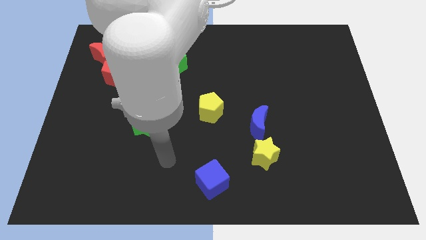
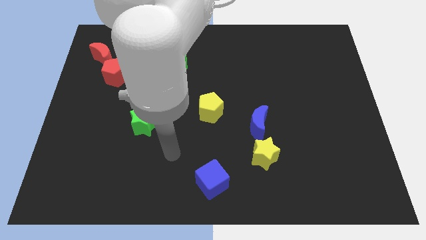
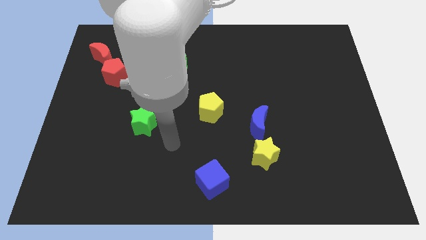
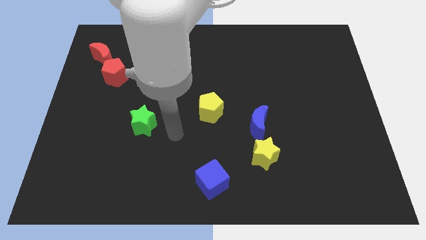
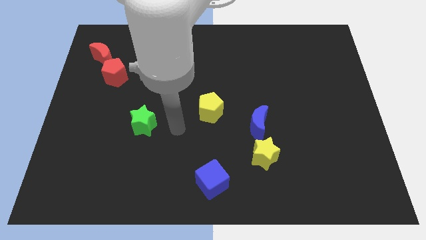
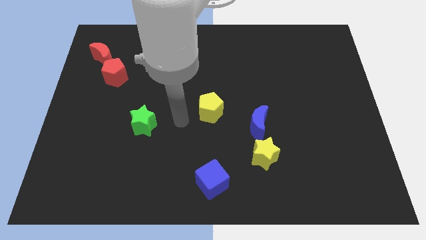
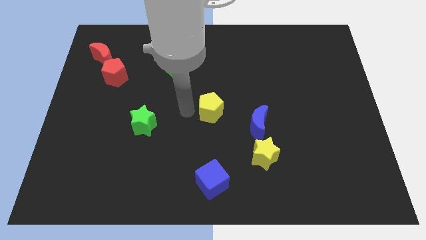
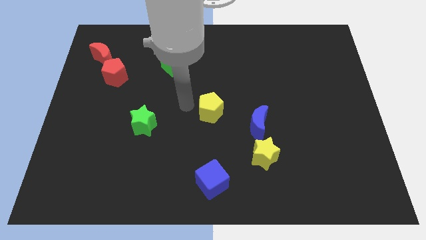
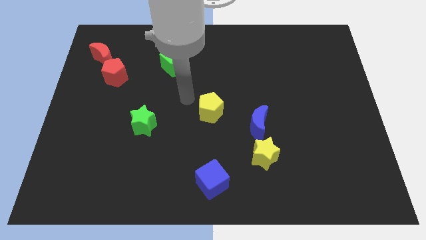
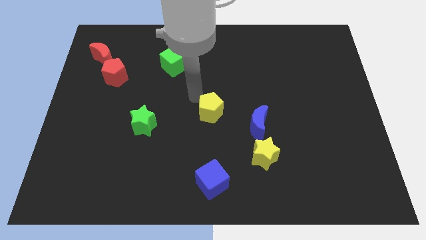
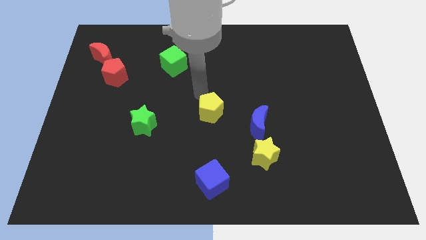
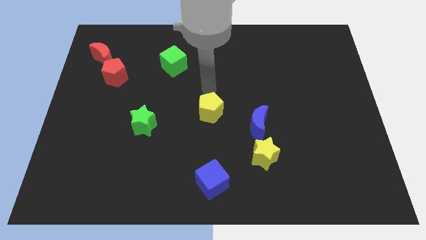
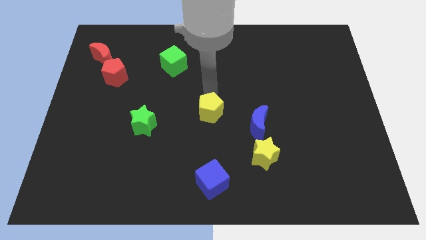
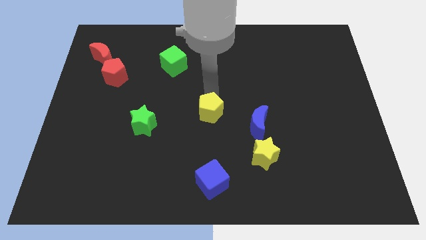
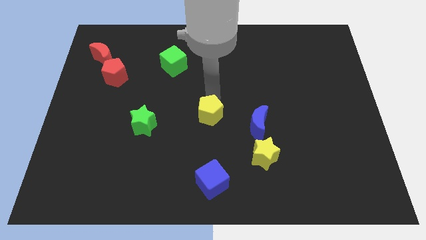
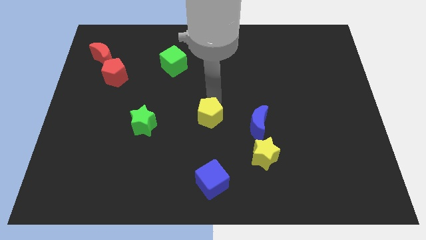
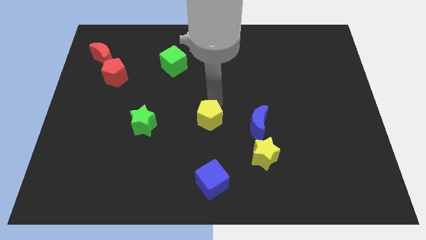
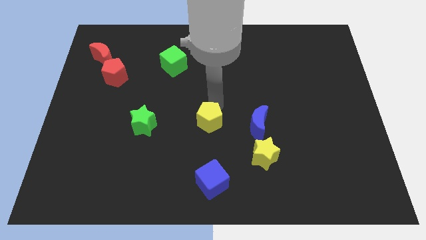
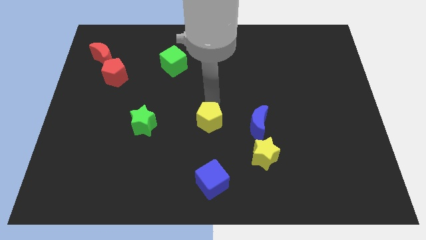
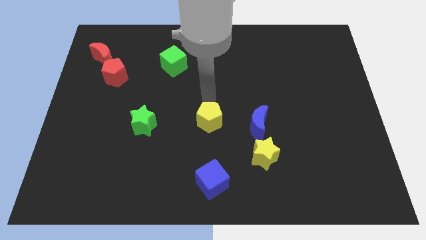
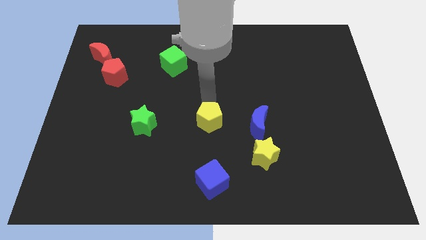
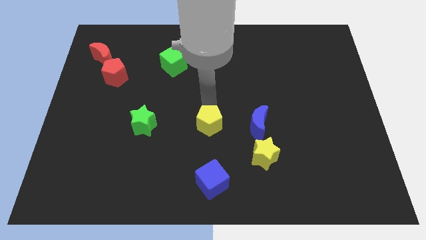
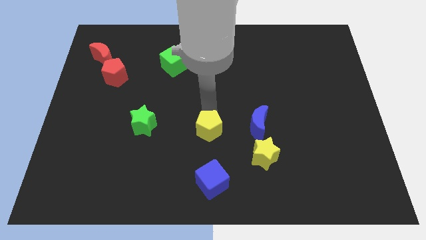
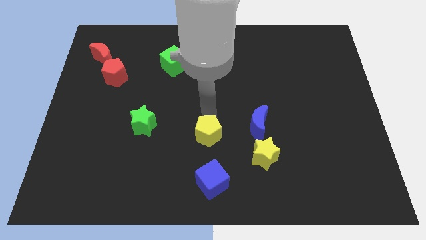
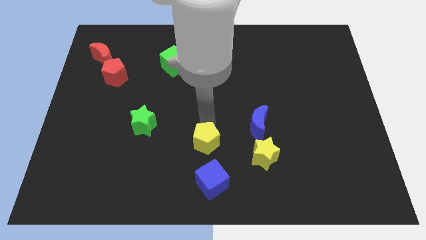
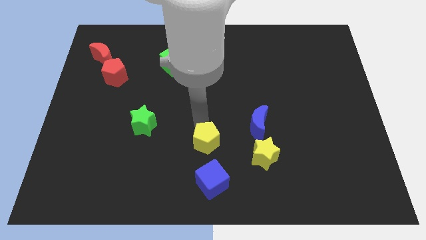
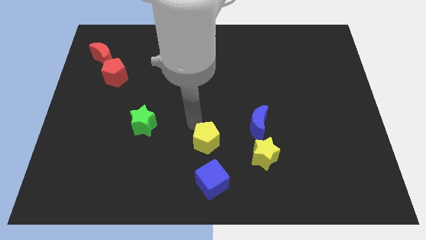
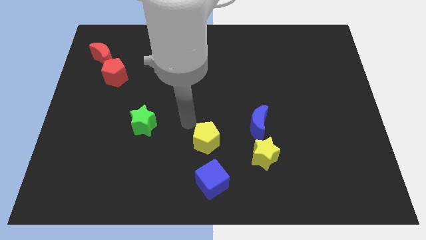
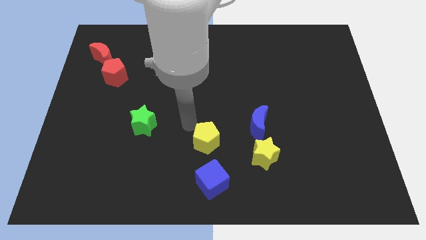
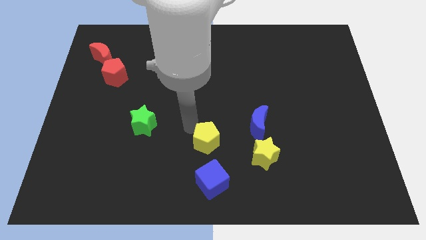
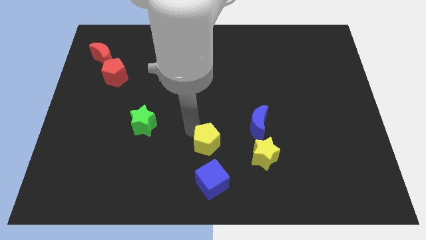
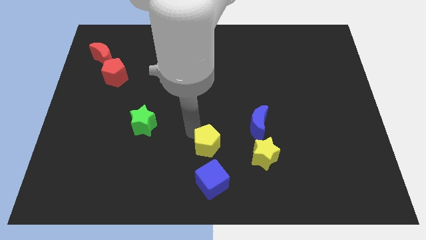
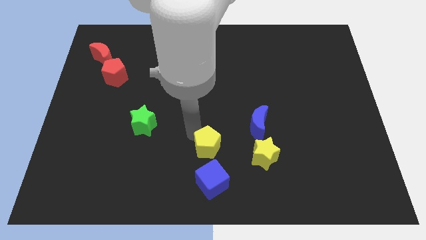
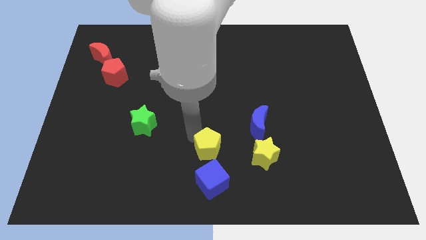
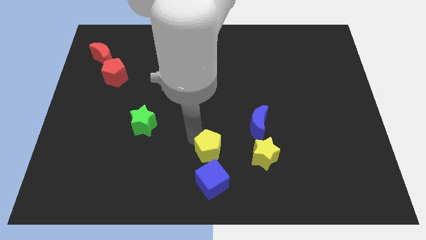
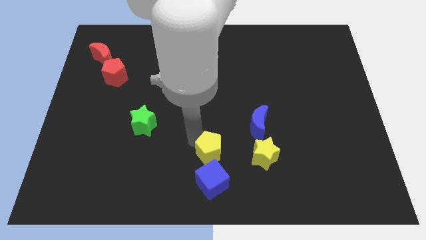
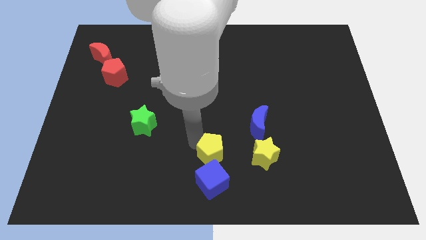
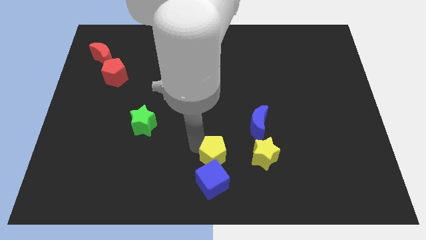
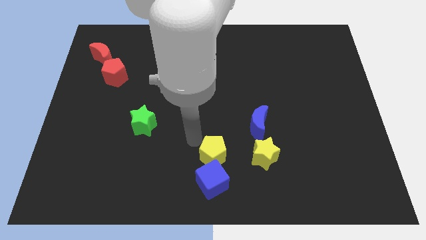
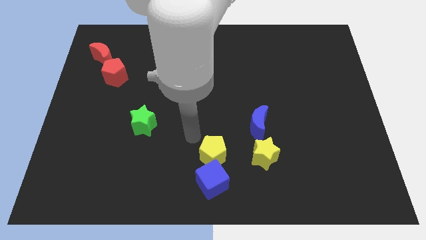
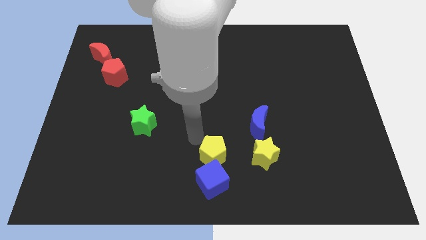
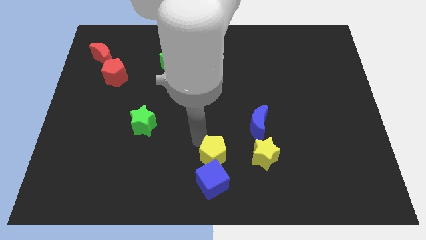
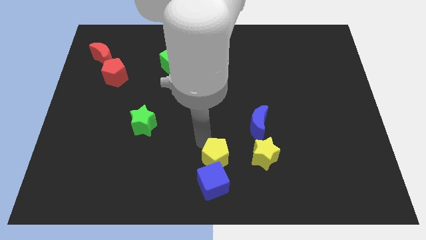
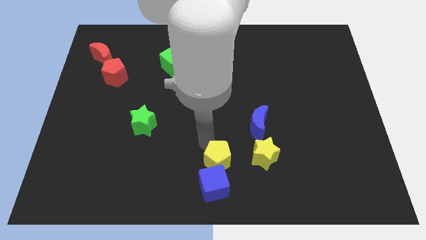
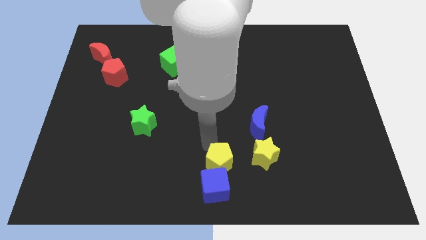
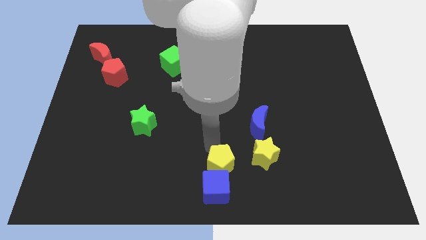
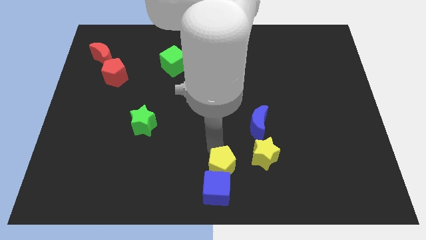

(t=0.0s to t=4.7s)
move the yellow pentagon diagonally down and to the left of the yellow star

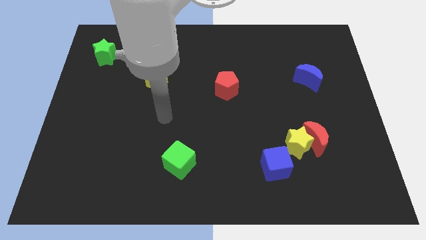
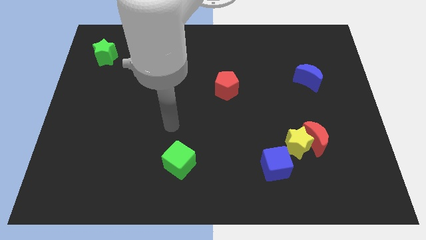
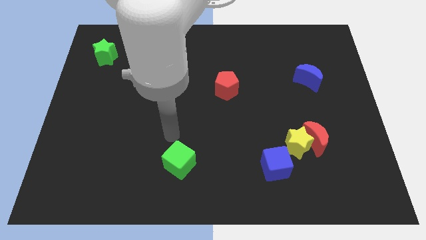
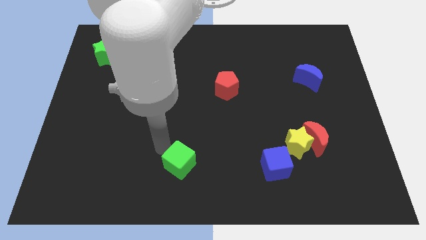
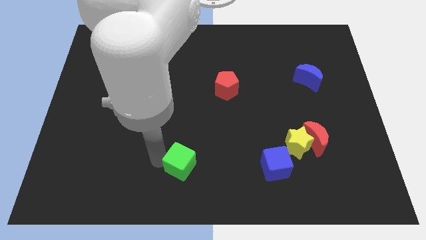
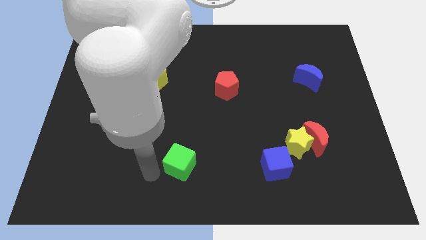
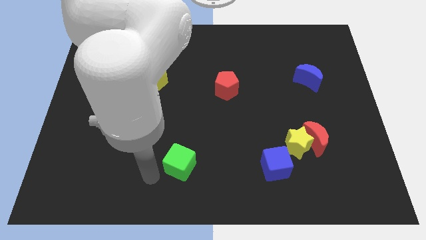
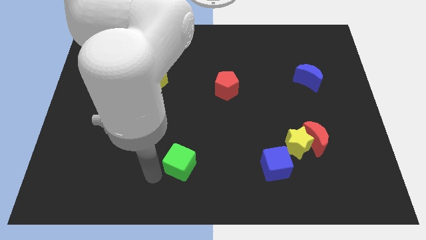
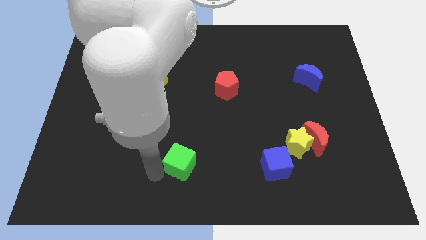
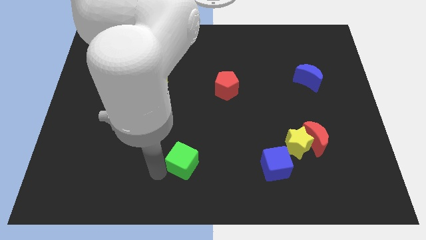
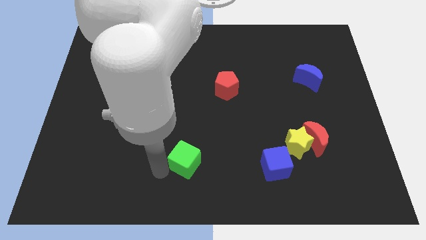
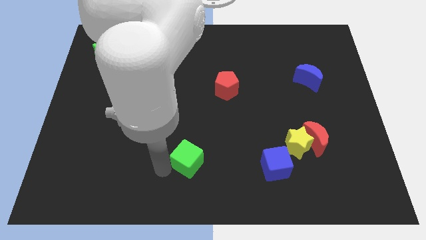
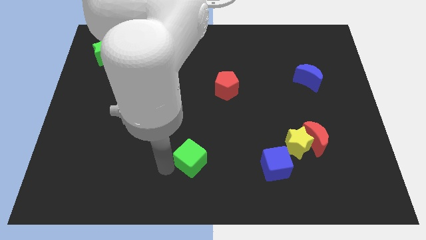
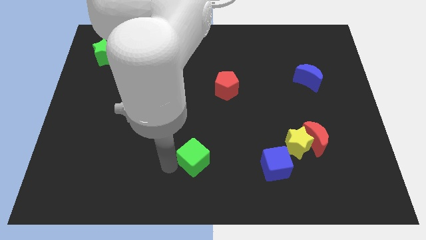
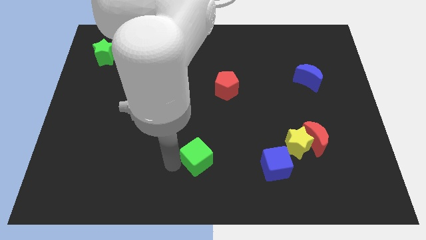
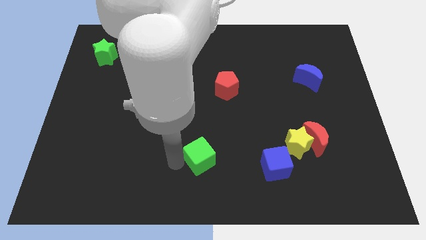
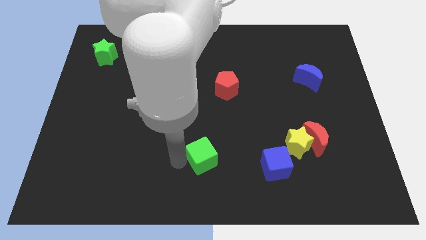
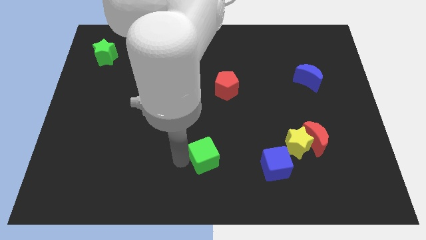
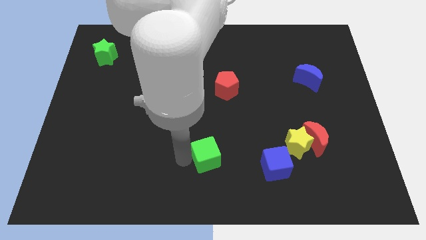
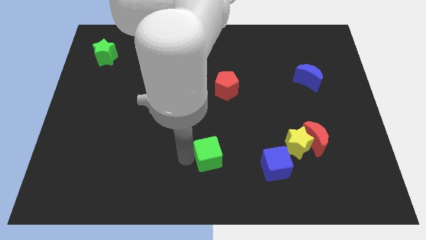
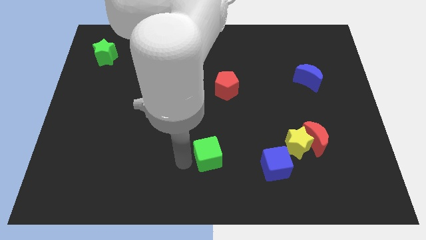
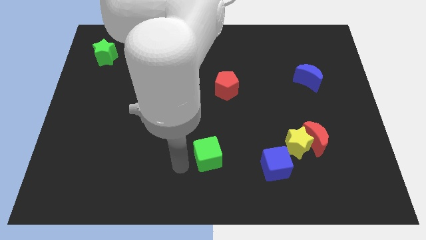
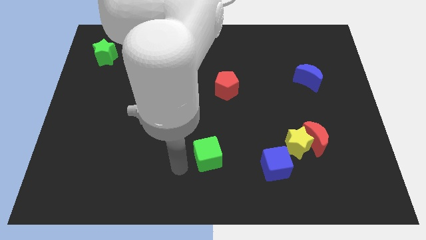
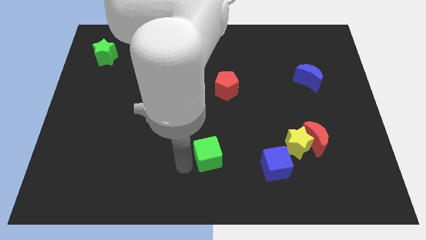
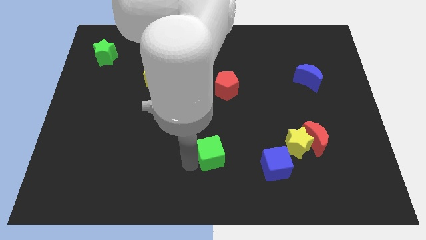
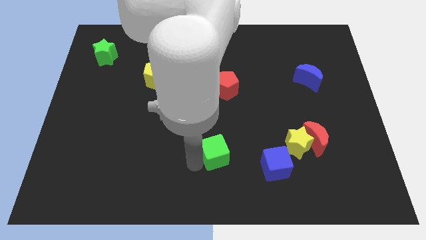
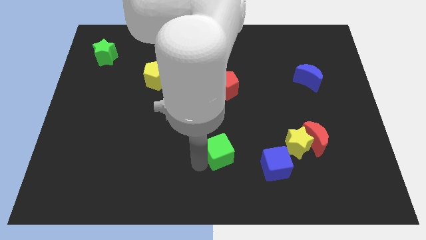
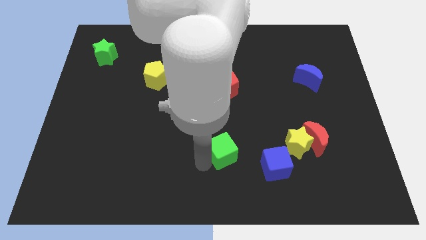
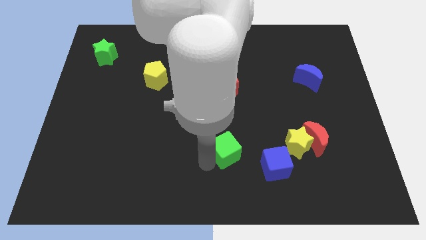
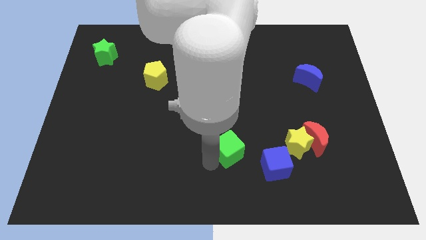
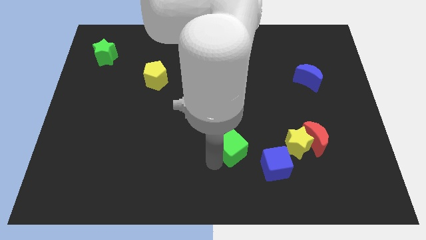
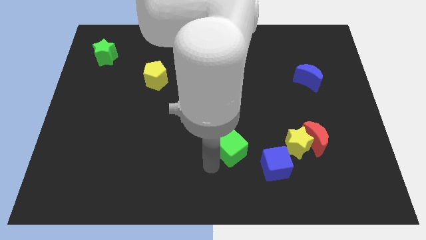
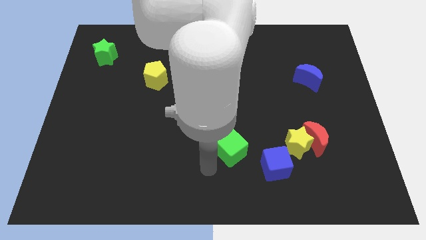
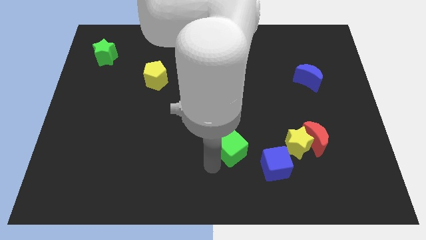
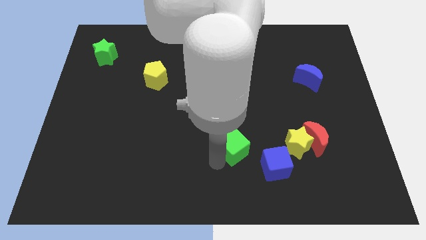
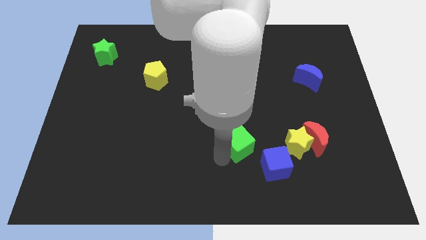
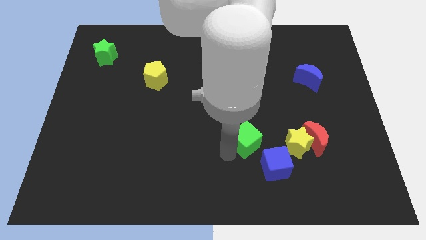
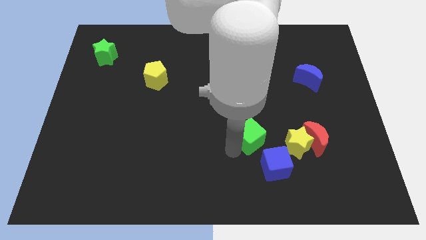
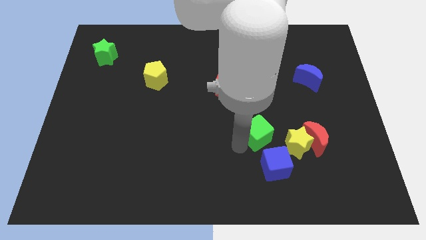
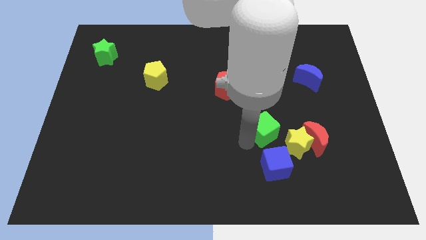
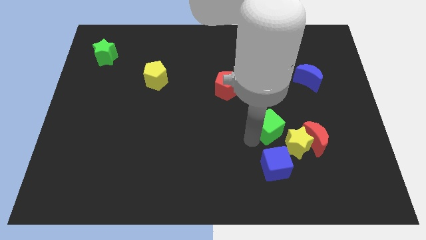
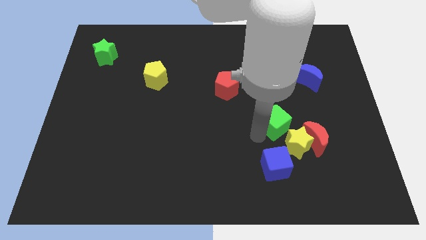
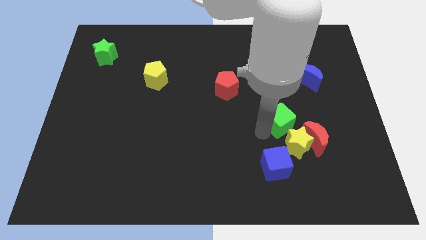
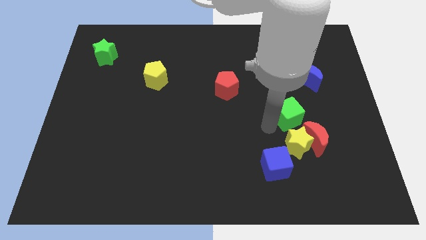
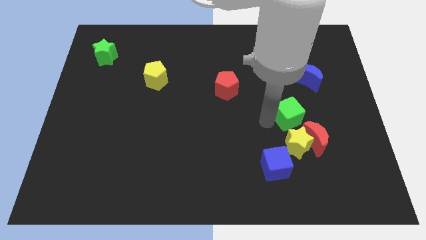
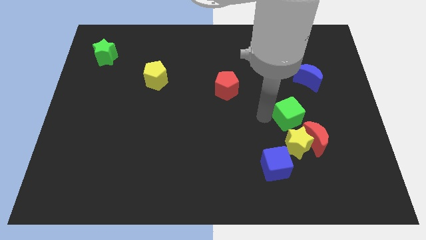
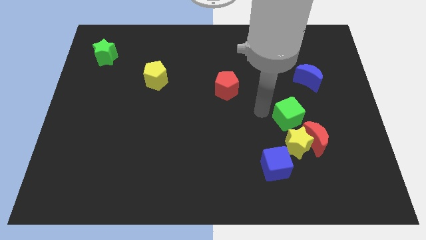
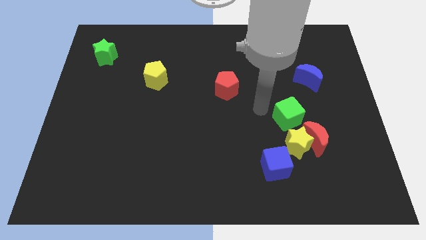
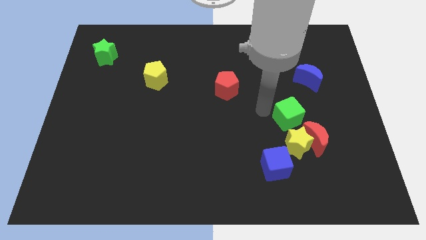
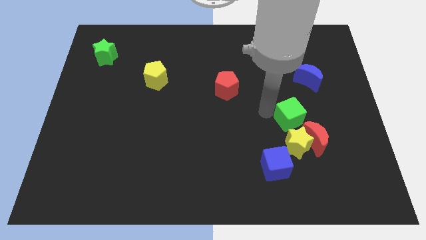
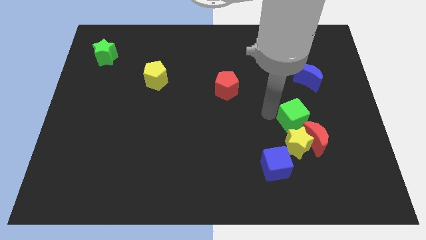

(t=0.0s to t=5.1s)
put the green cube diagonally up and to the right of the yellow star
